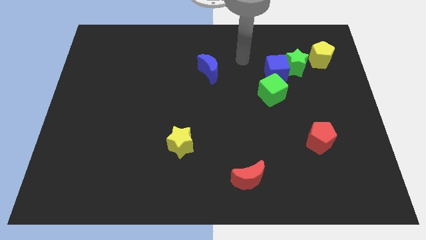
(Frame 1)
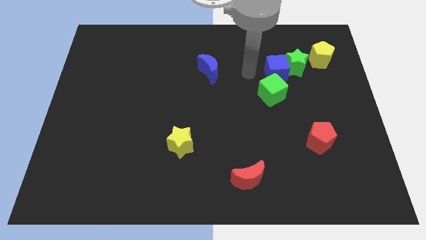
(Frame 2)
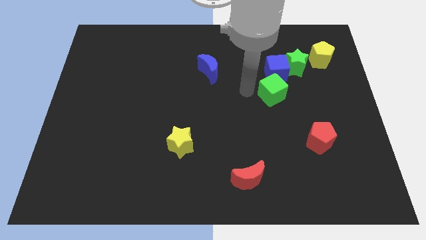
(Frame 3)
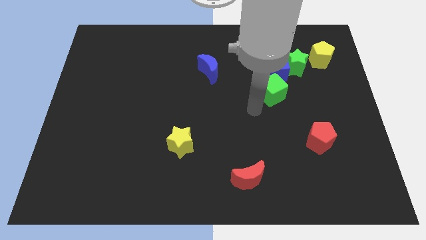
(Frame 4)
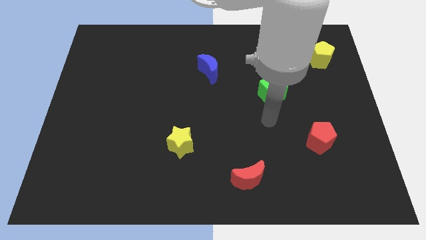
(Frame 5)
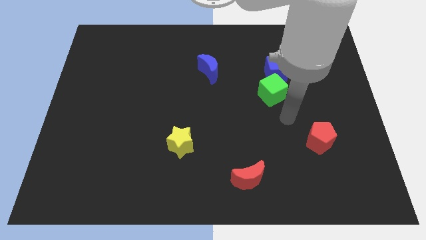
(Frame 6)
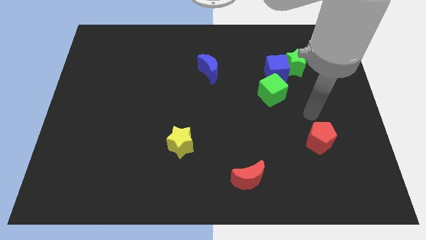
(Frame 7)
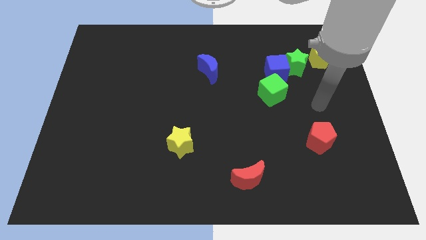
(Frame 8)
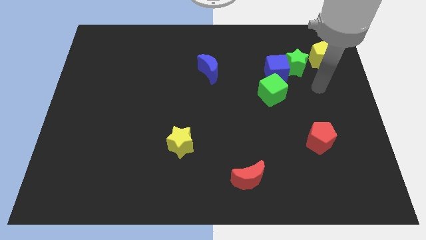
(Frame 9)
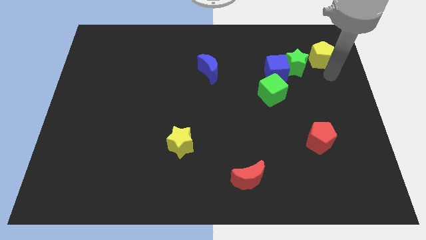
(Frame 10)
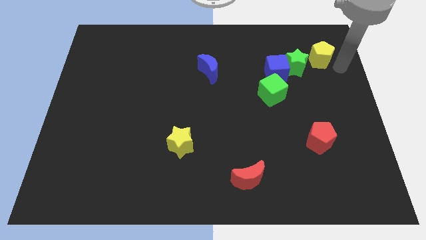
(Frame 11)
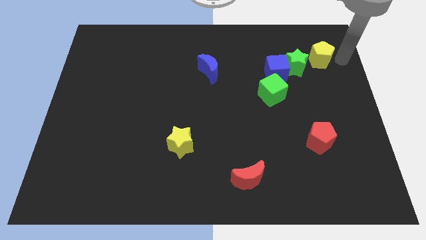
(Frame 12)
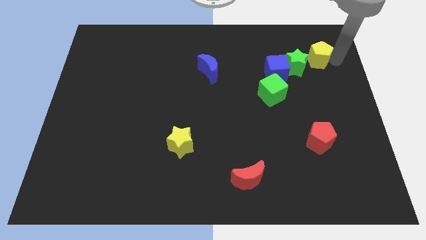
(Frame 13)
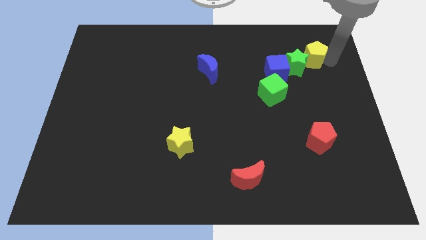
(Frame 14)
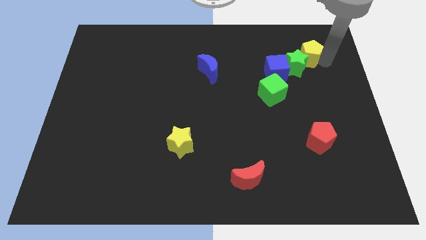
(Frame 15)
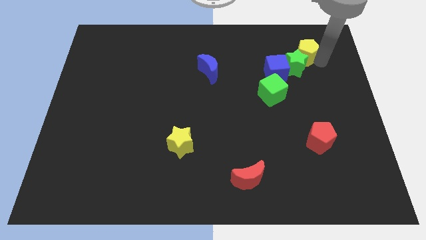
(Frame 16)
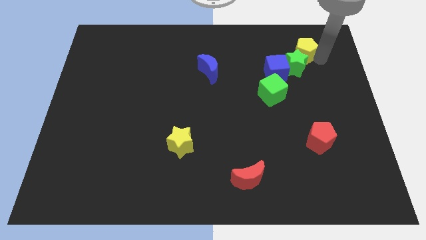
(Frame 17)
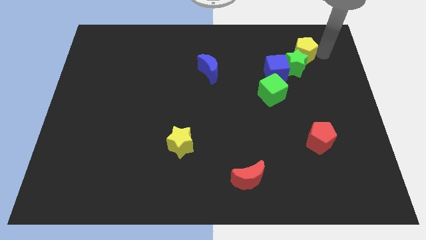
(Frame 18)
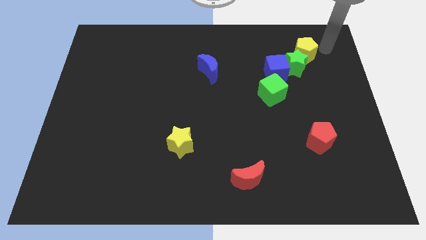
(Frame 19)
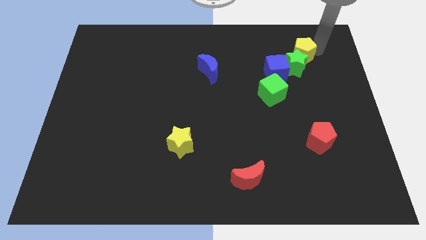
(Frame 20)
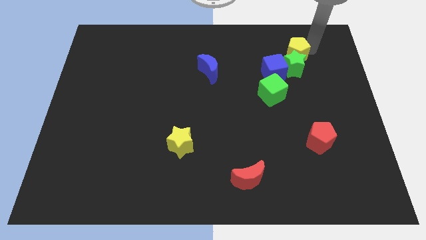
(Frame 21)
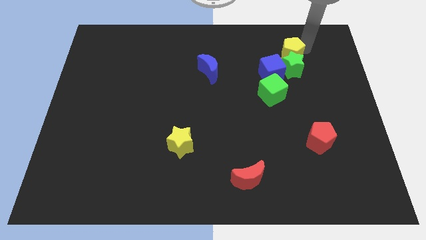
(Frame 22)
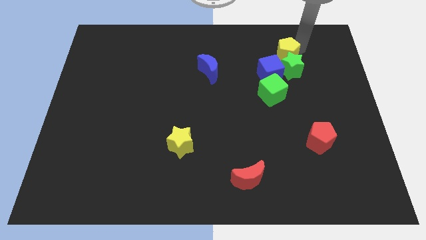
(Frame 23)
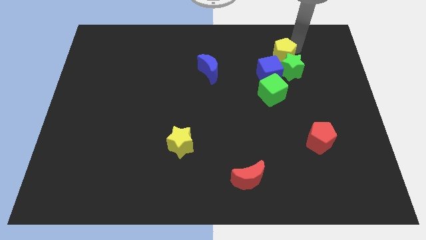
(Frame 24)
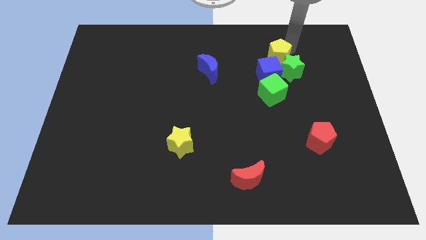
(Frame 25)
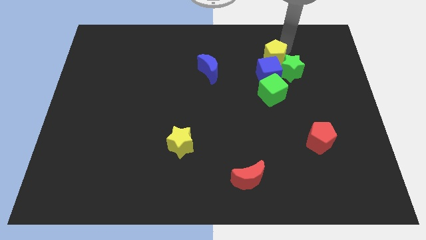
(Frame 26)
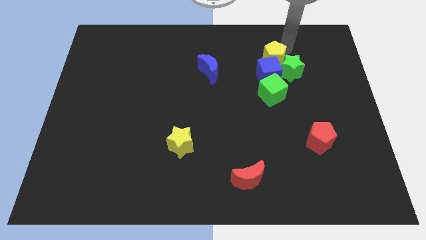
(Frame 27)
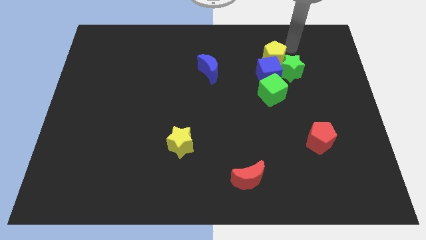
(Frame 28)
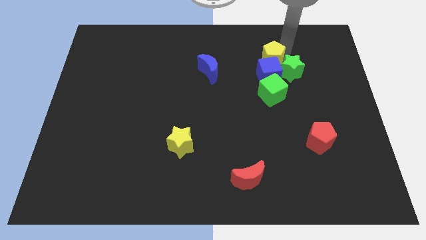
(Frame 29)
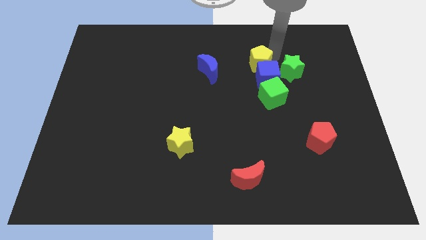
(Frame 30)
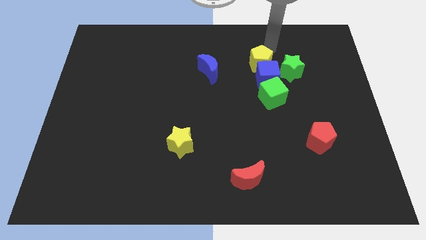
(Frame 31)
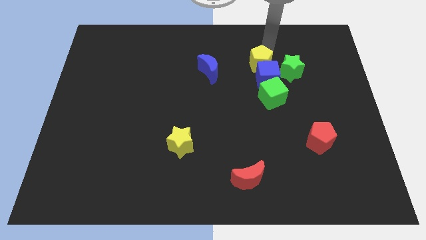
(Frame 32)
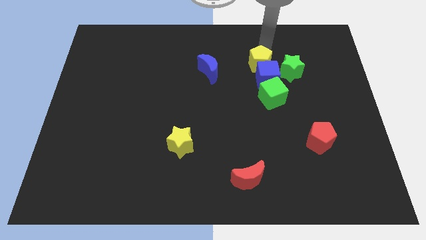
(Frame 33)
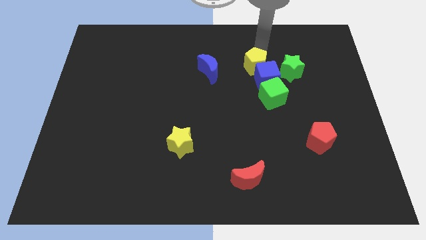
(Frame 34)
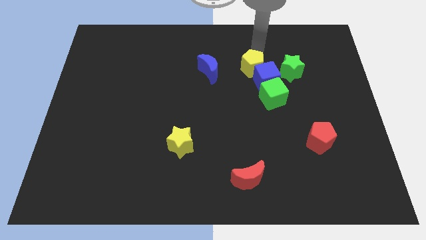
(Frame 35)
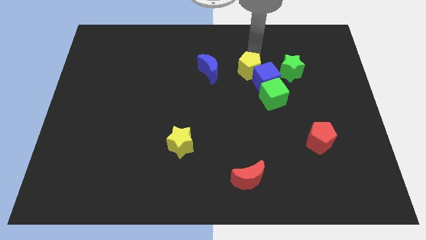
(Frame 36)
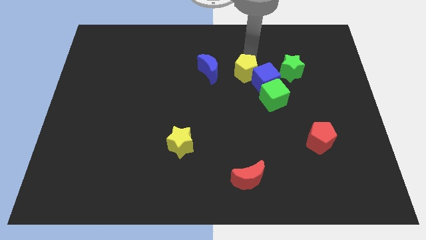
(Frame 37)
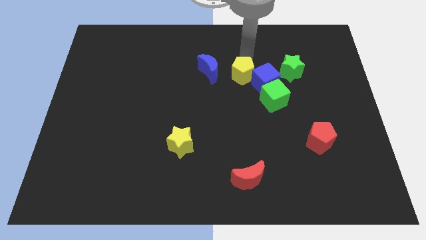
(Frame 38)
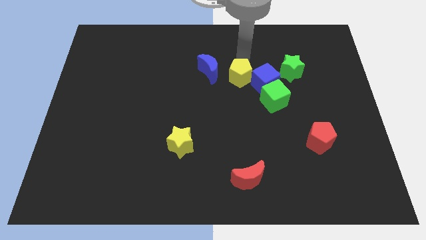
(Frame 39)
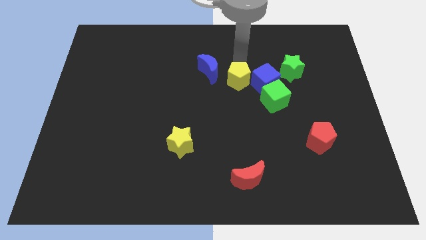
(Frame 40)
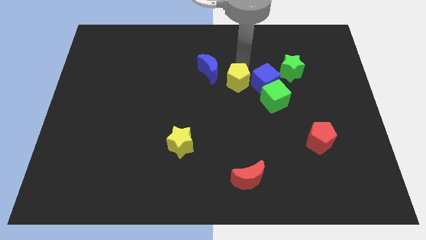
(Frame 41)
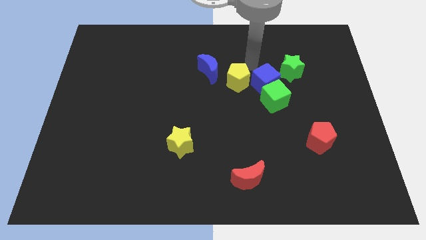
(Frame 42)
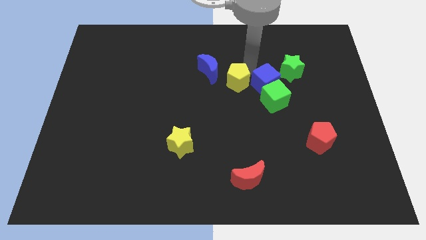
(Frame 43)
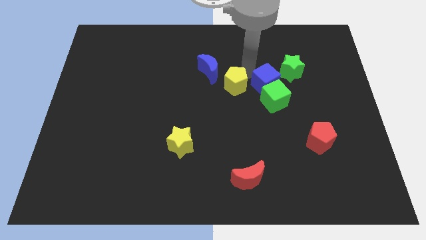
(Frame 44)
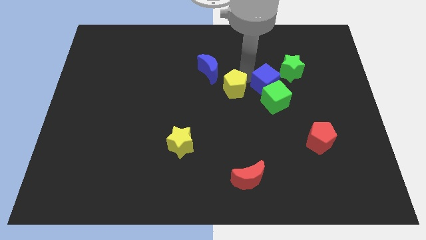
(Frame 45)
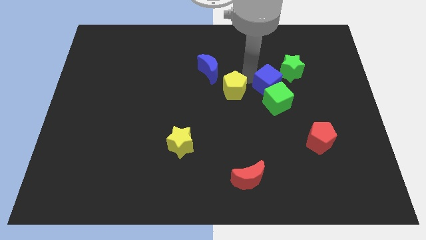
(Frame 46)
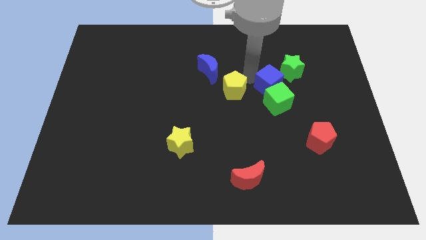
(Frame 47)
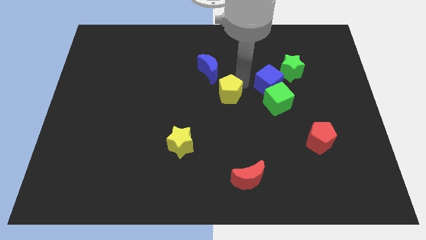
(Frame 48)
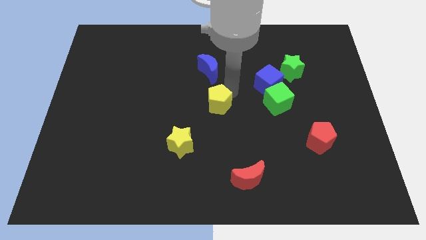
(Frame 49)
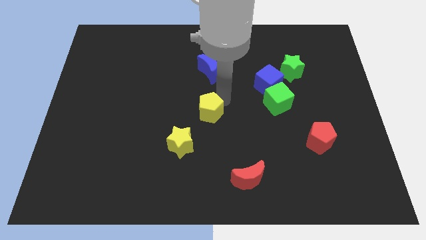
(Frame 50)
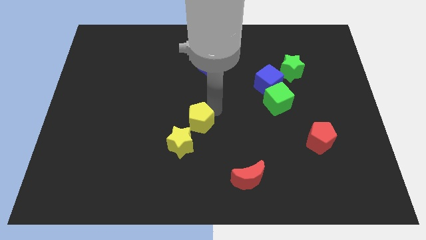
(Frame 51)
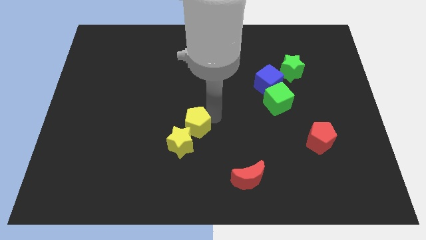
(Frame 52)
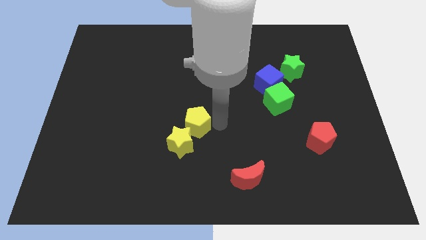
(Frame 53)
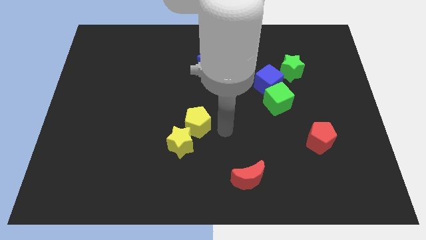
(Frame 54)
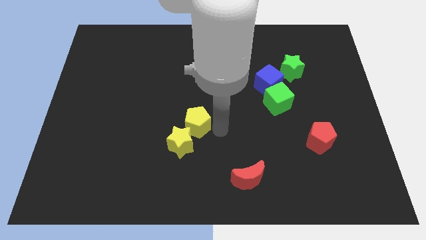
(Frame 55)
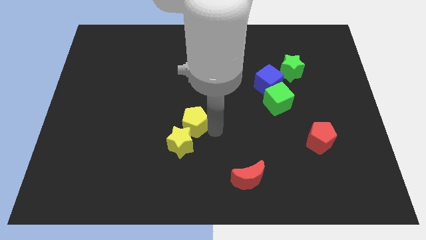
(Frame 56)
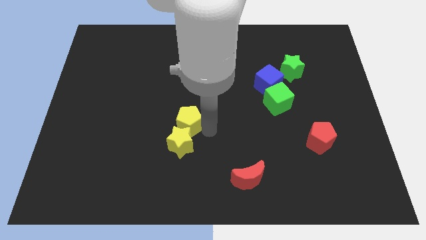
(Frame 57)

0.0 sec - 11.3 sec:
move the yellow pentagon to the top left of the yellow star

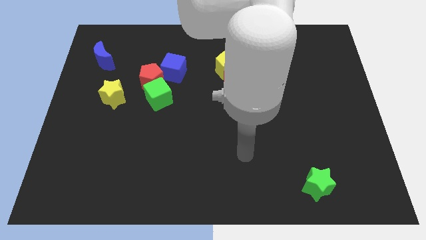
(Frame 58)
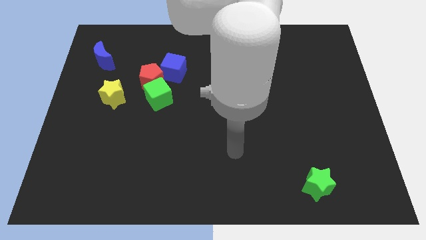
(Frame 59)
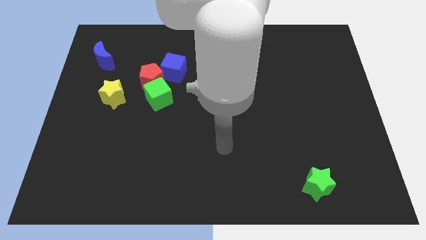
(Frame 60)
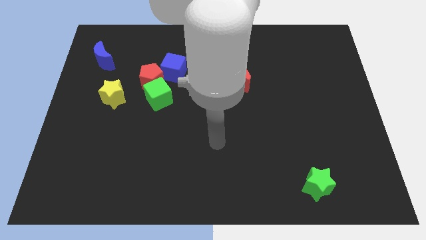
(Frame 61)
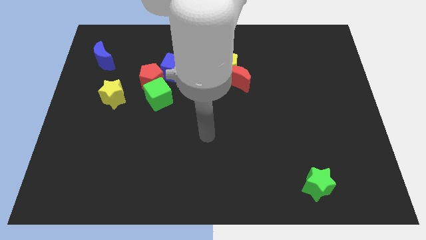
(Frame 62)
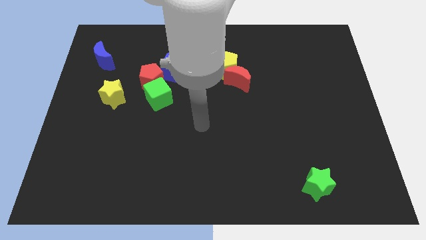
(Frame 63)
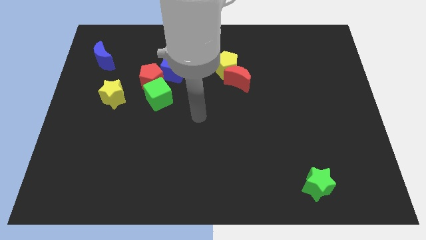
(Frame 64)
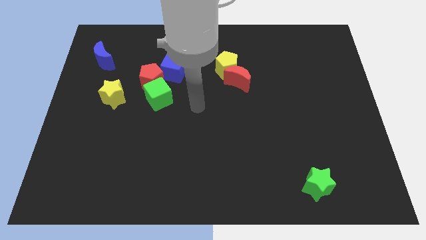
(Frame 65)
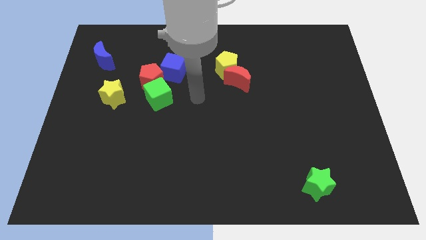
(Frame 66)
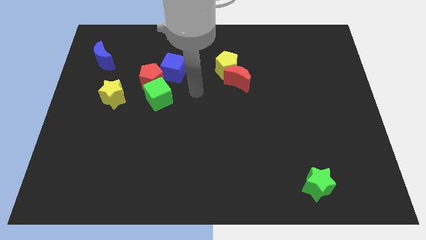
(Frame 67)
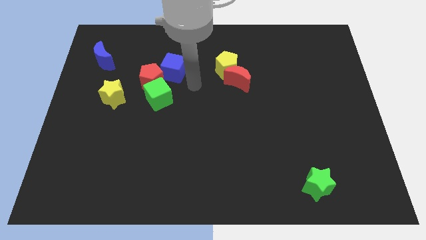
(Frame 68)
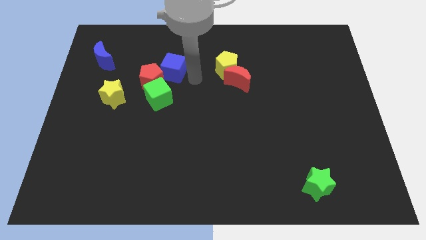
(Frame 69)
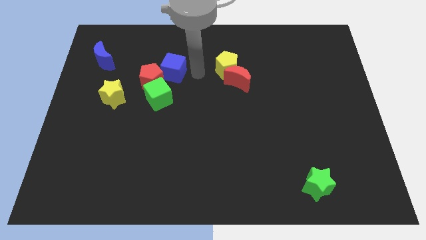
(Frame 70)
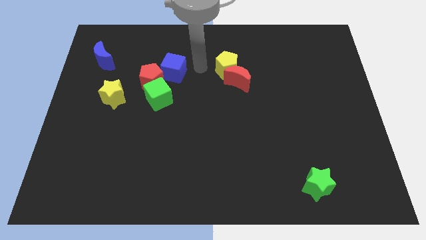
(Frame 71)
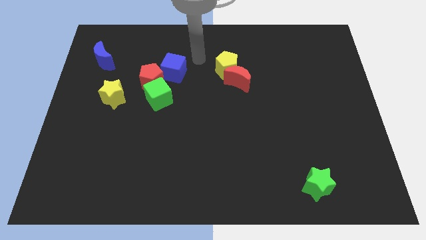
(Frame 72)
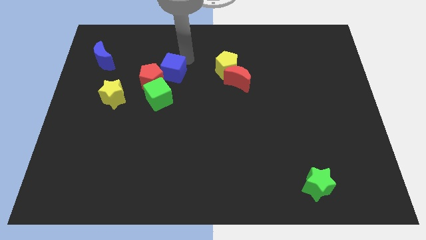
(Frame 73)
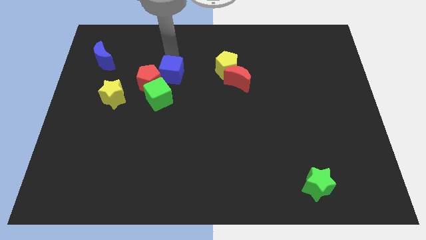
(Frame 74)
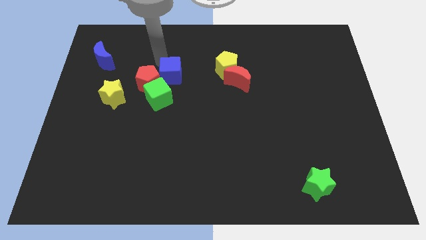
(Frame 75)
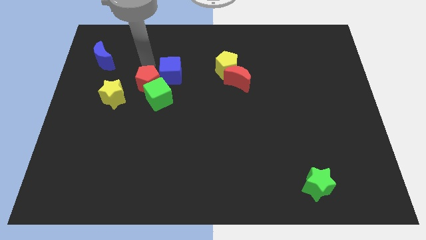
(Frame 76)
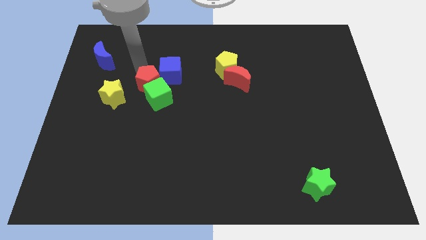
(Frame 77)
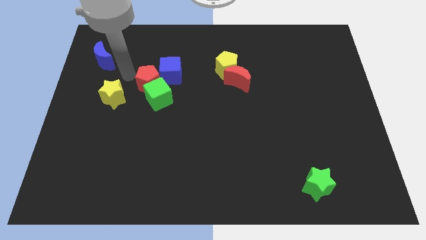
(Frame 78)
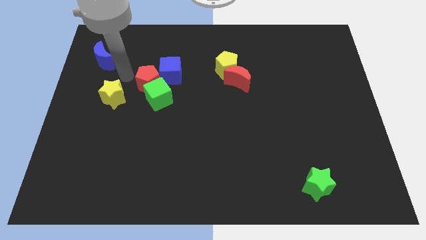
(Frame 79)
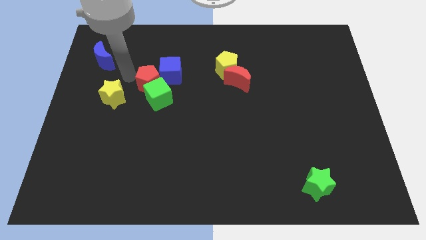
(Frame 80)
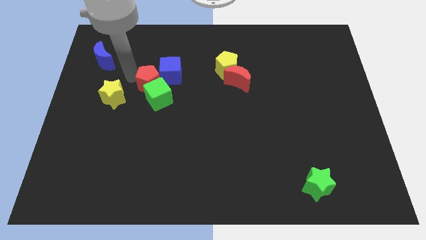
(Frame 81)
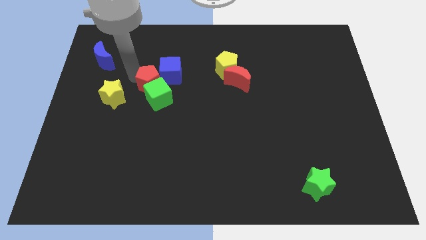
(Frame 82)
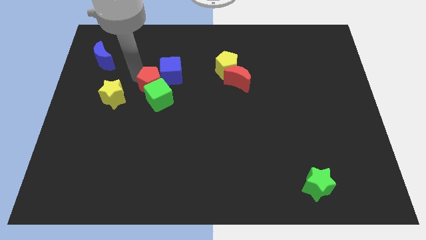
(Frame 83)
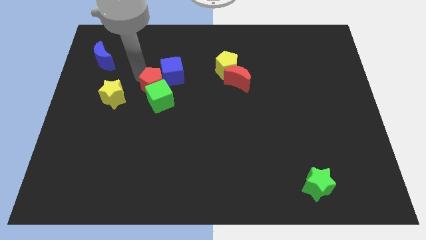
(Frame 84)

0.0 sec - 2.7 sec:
move the red pentagon to the bottom side of the blue cube
